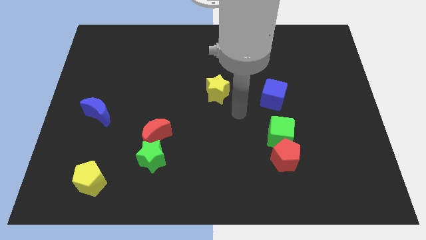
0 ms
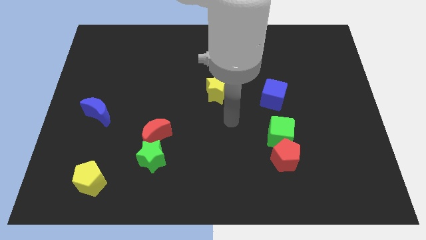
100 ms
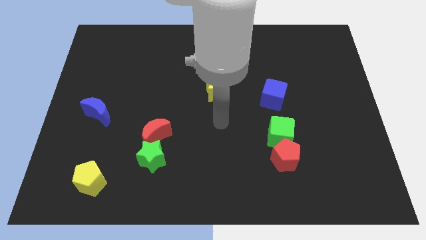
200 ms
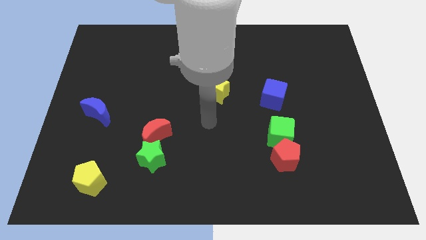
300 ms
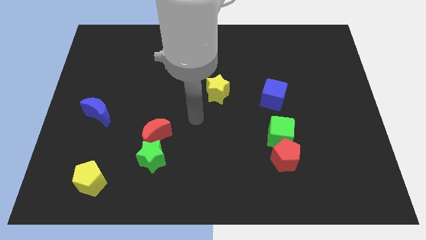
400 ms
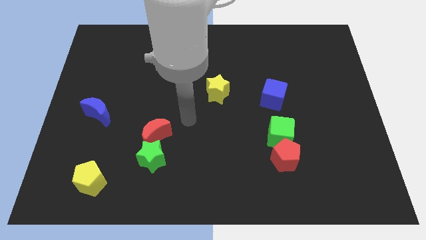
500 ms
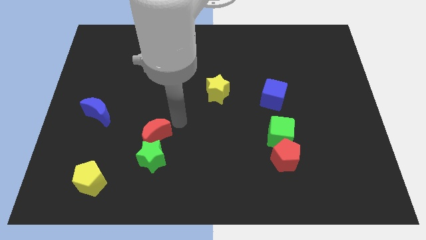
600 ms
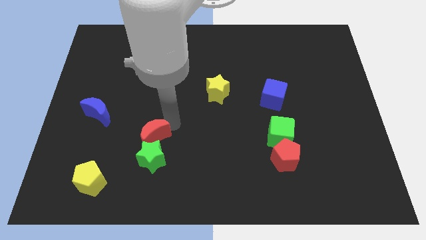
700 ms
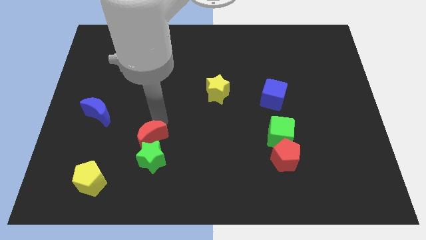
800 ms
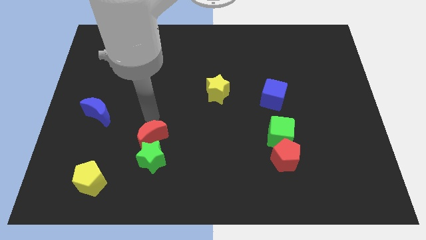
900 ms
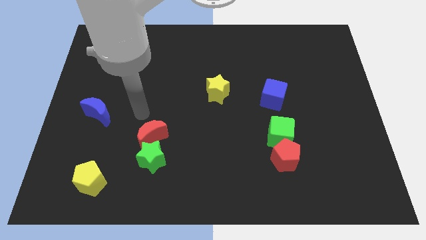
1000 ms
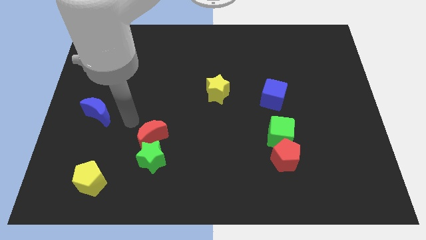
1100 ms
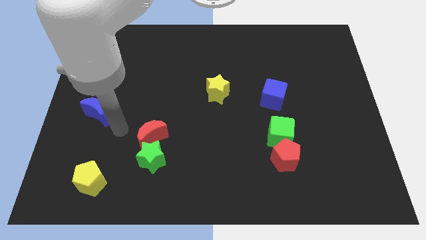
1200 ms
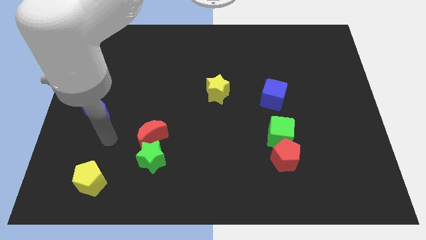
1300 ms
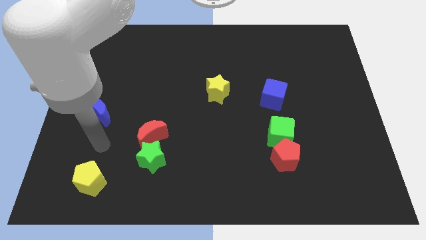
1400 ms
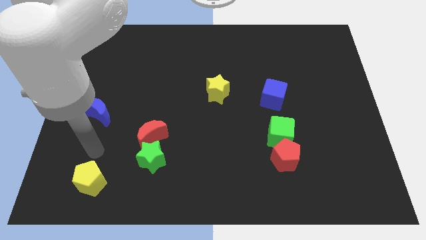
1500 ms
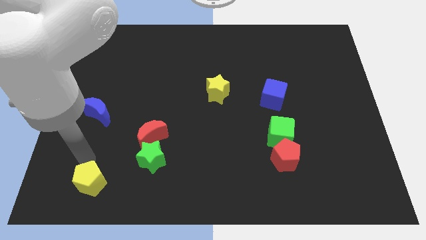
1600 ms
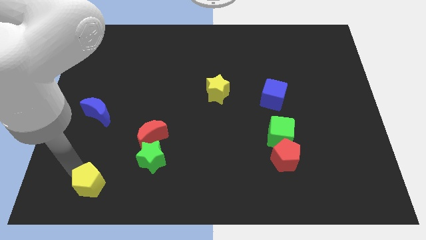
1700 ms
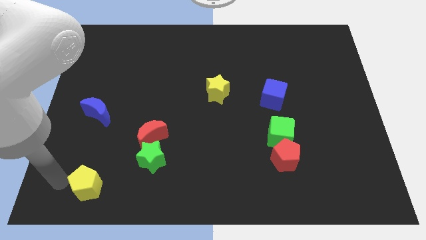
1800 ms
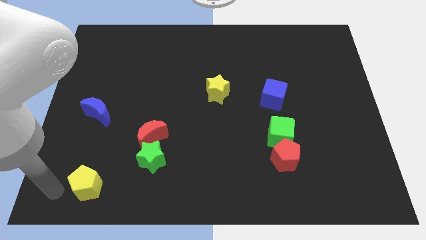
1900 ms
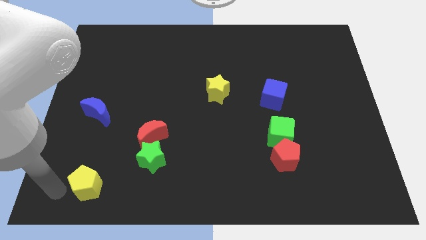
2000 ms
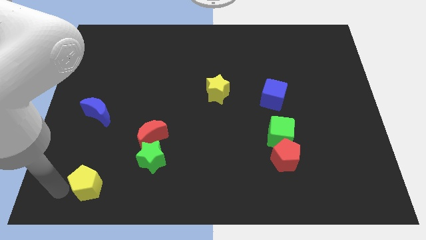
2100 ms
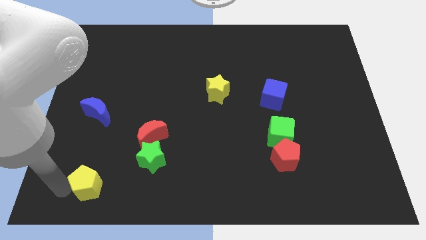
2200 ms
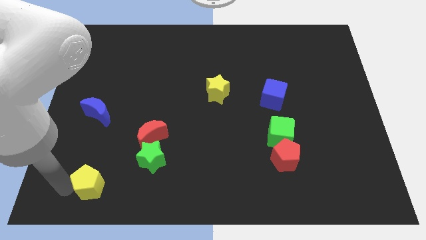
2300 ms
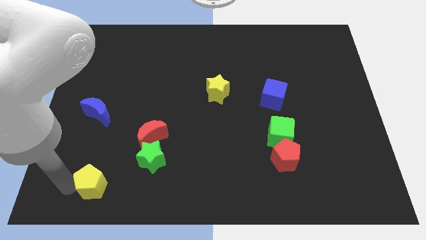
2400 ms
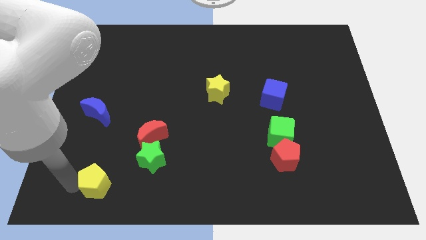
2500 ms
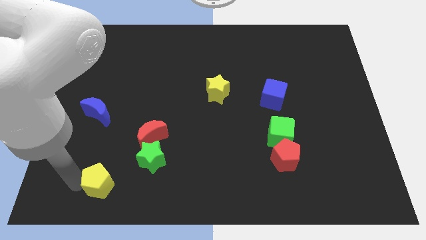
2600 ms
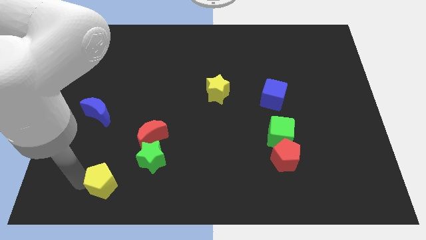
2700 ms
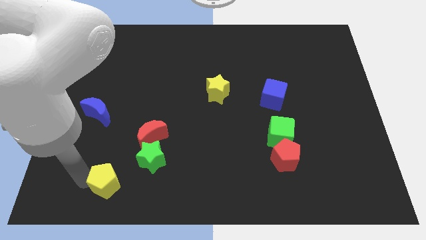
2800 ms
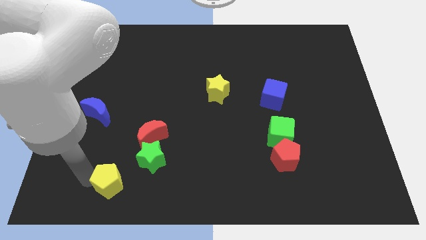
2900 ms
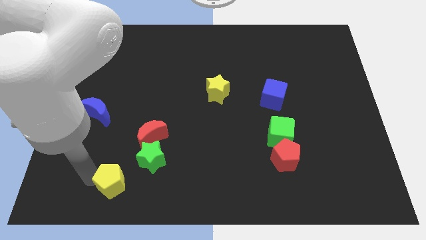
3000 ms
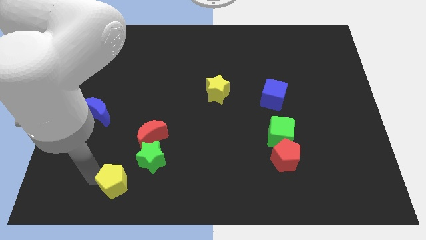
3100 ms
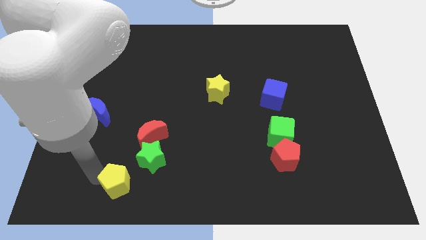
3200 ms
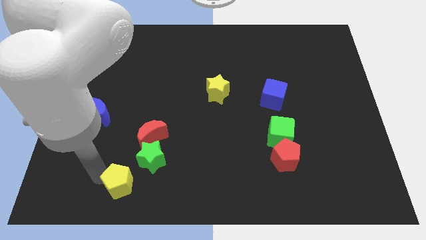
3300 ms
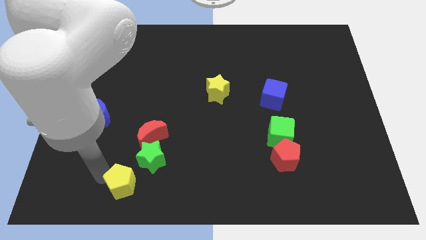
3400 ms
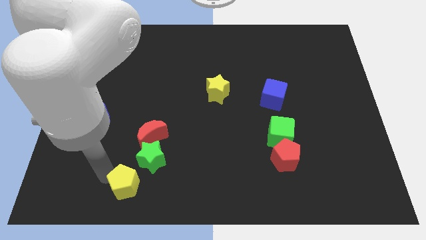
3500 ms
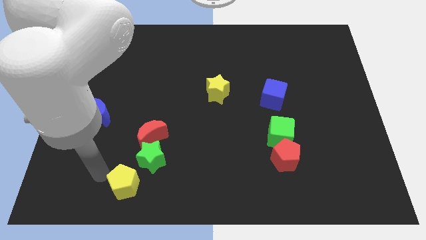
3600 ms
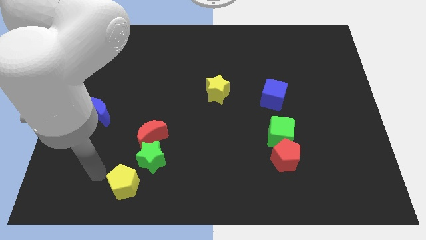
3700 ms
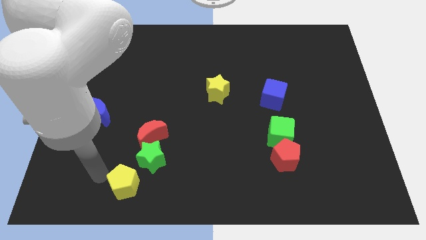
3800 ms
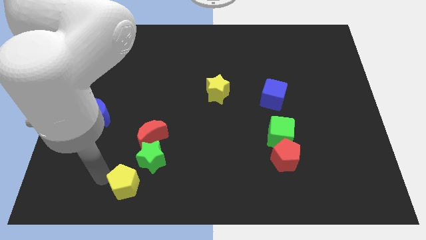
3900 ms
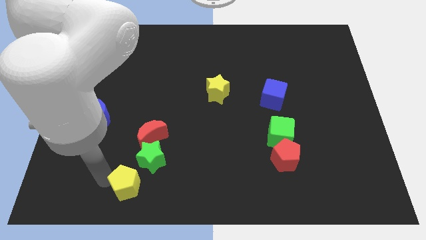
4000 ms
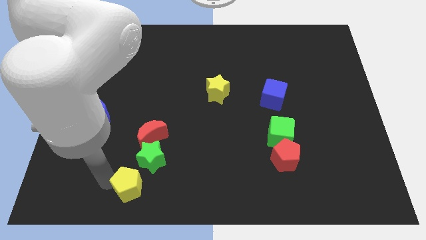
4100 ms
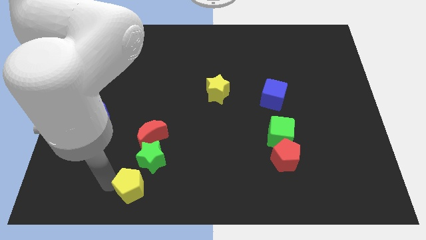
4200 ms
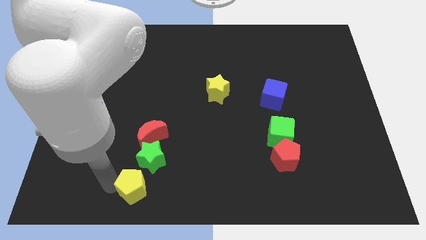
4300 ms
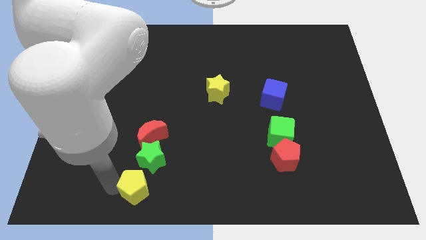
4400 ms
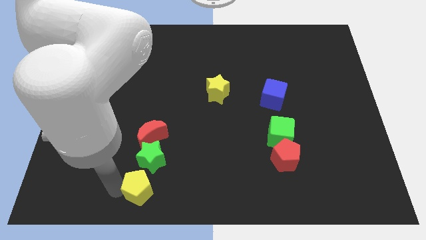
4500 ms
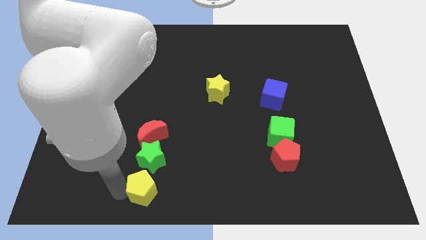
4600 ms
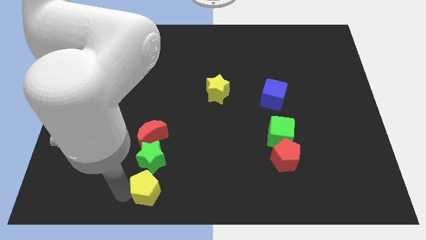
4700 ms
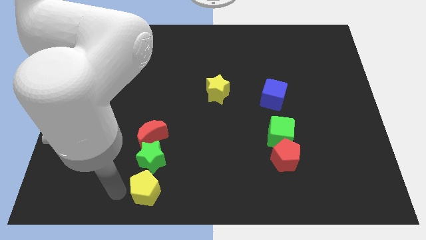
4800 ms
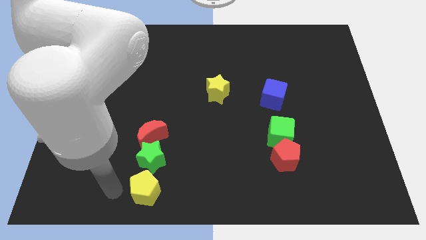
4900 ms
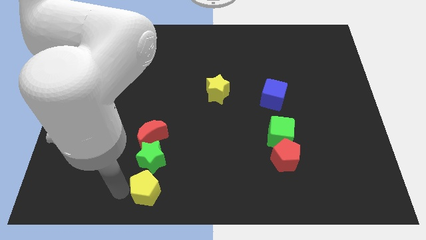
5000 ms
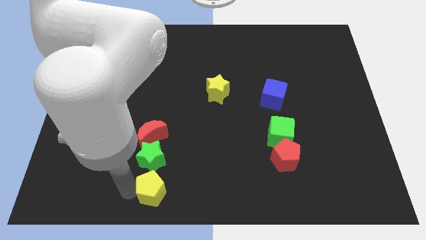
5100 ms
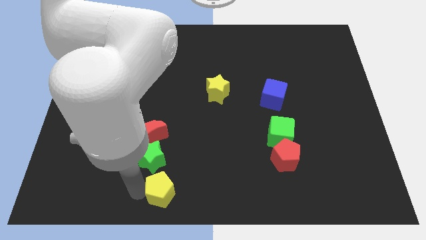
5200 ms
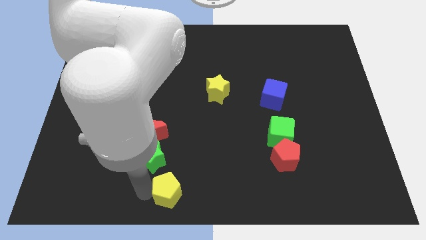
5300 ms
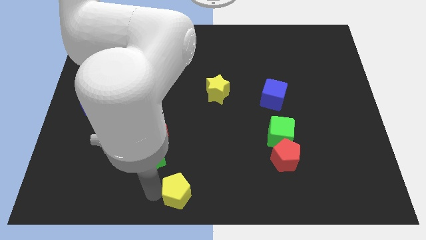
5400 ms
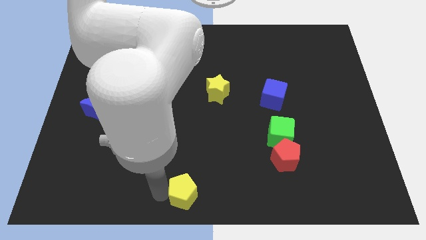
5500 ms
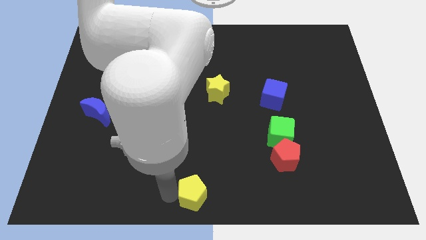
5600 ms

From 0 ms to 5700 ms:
push the yellow pentagon to the right

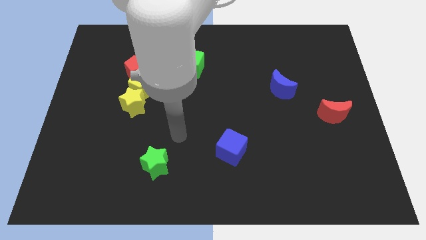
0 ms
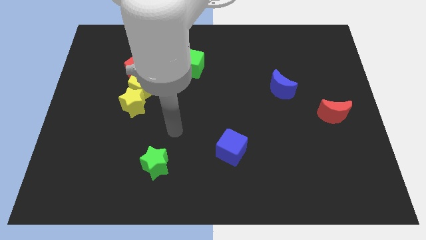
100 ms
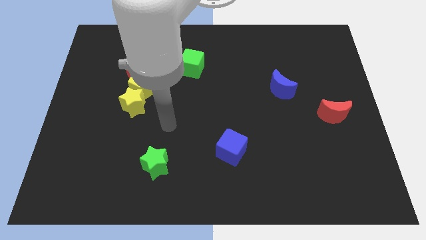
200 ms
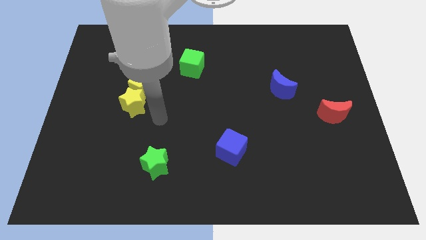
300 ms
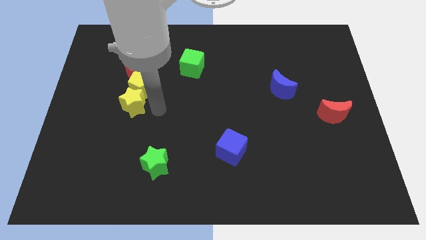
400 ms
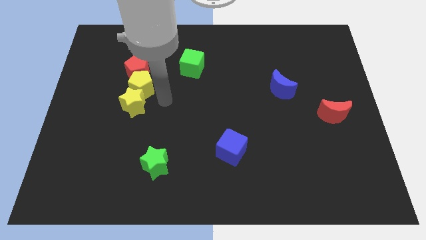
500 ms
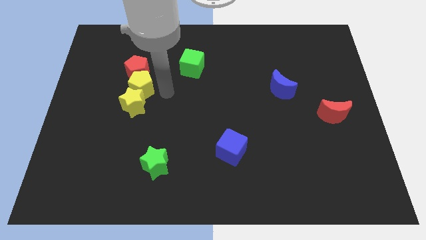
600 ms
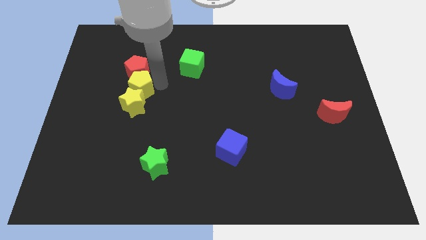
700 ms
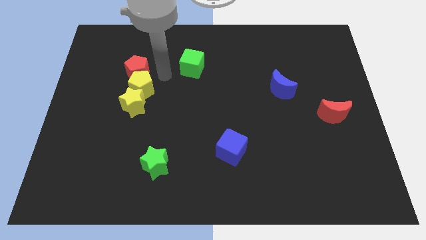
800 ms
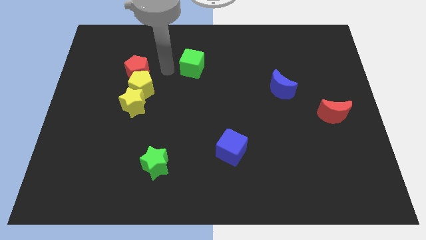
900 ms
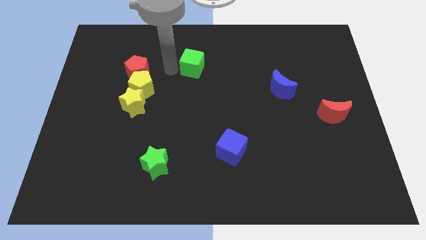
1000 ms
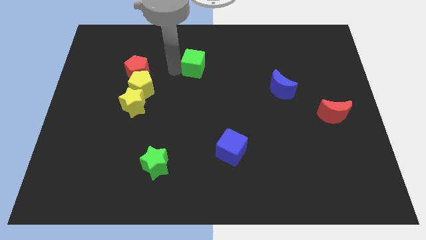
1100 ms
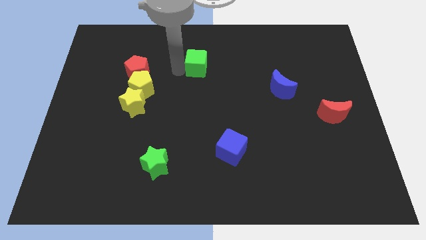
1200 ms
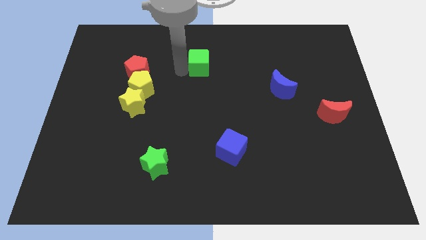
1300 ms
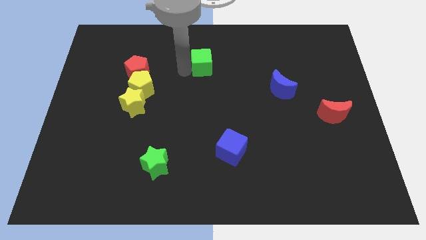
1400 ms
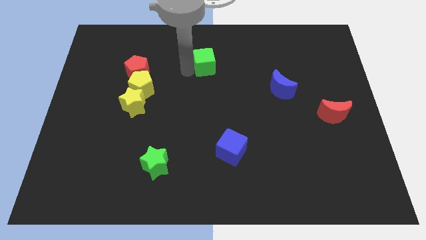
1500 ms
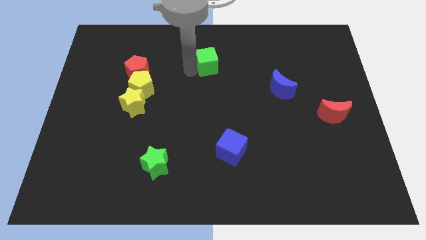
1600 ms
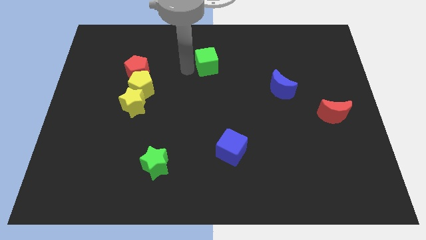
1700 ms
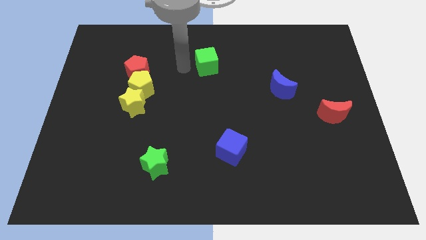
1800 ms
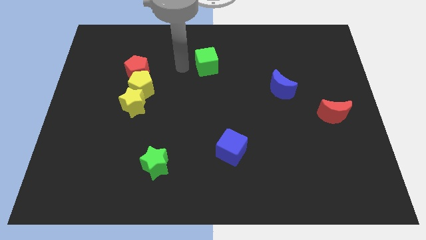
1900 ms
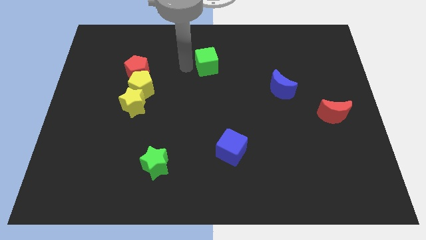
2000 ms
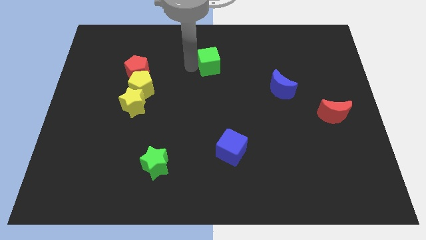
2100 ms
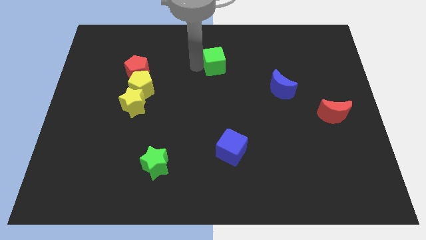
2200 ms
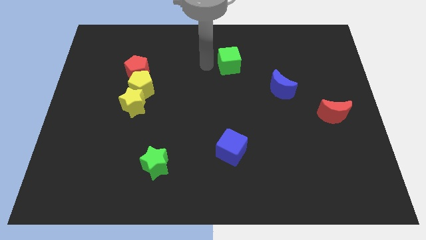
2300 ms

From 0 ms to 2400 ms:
move the green cube a little to the right
